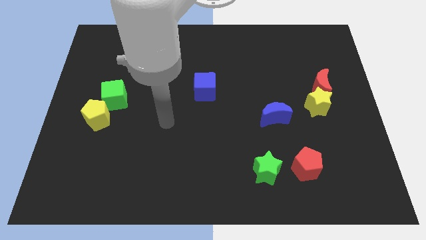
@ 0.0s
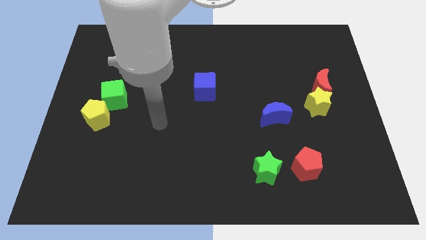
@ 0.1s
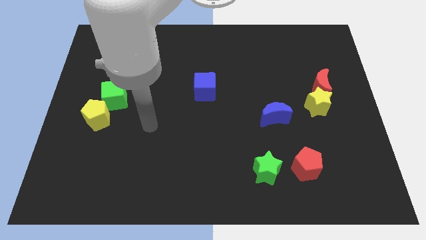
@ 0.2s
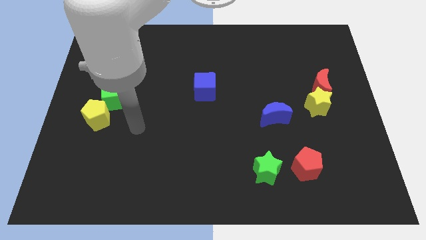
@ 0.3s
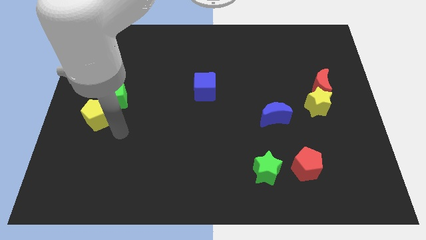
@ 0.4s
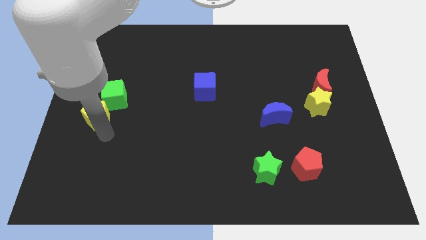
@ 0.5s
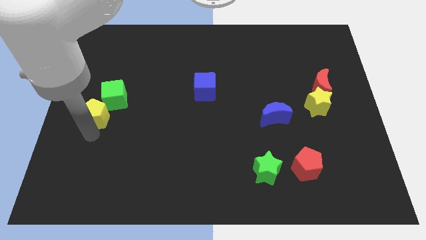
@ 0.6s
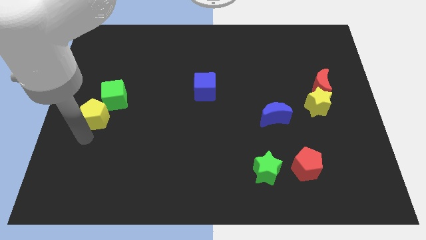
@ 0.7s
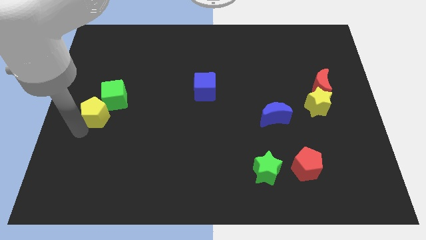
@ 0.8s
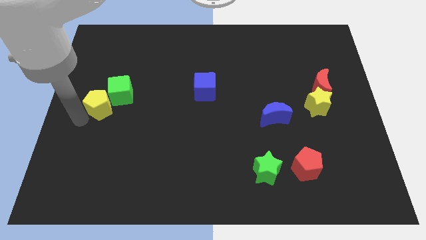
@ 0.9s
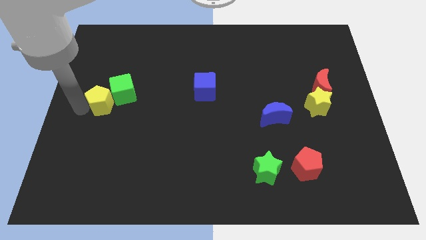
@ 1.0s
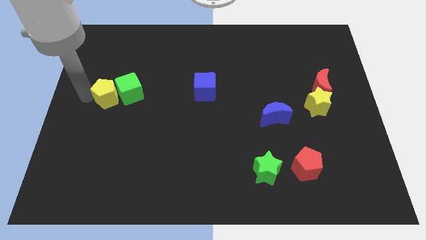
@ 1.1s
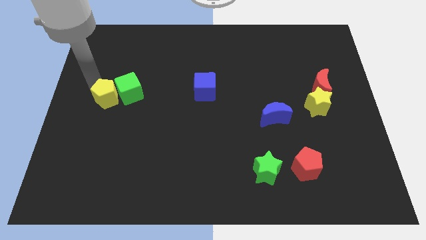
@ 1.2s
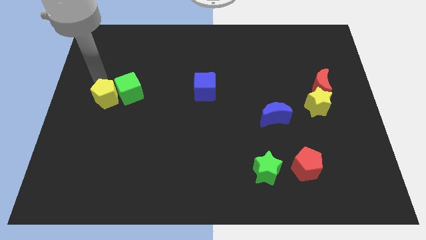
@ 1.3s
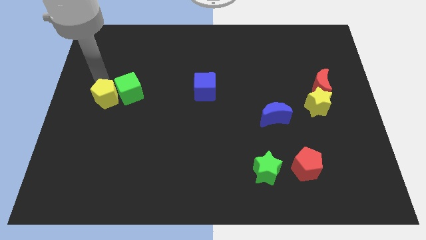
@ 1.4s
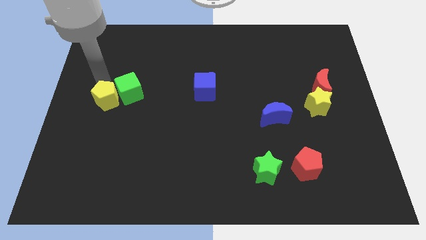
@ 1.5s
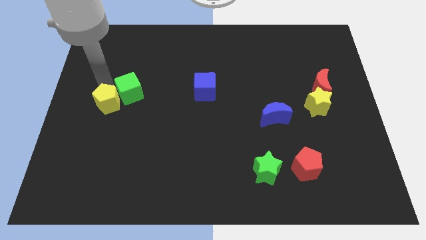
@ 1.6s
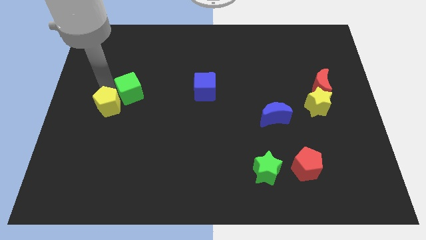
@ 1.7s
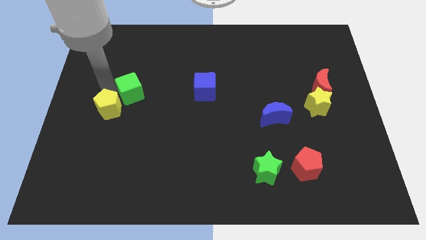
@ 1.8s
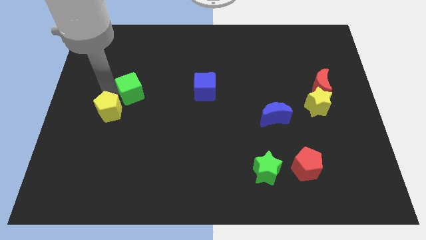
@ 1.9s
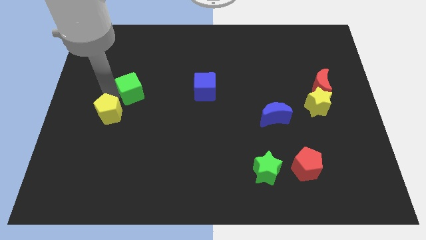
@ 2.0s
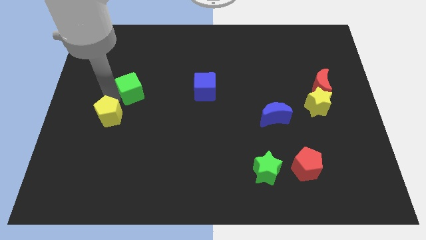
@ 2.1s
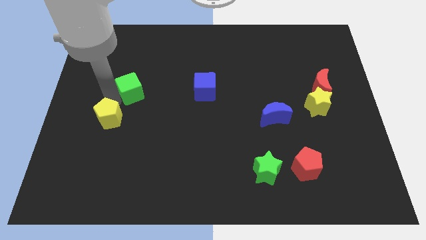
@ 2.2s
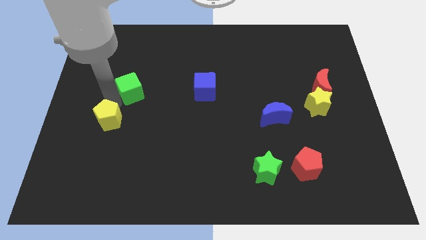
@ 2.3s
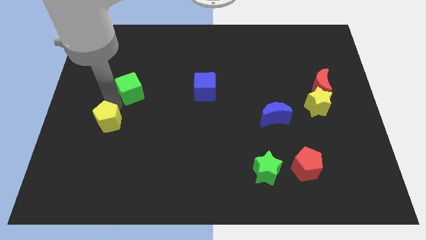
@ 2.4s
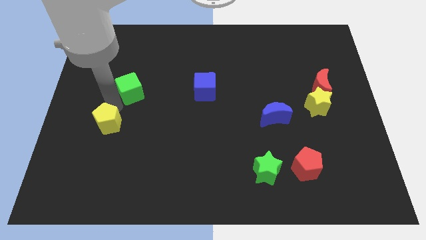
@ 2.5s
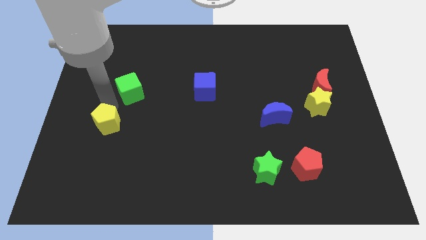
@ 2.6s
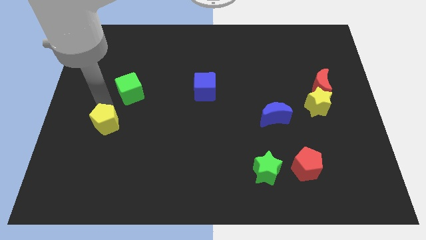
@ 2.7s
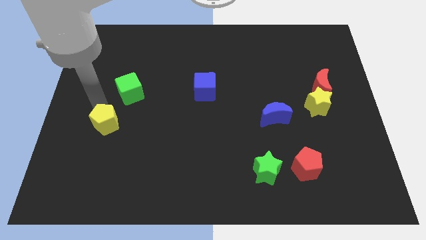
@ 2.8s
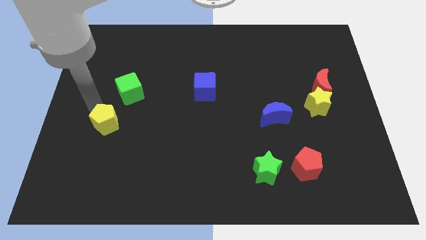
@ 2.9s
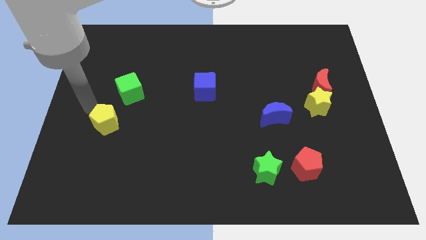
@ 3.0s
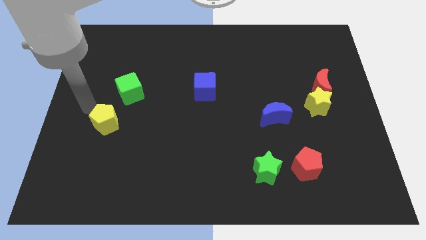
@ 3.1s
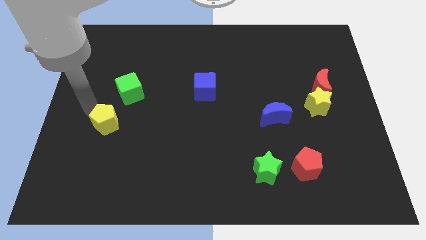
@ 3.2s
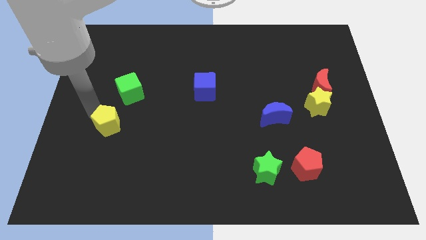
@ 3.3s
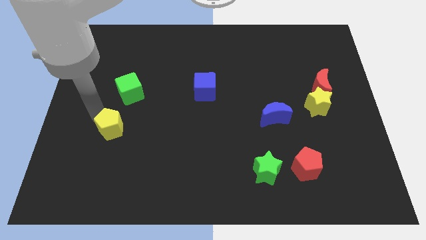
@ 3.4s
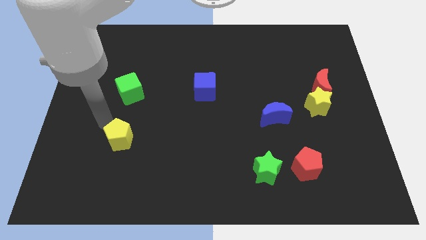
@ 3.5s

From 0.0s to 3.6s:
slide the yellow pentagon a bit diagonally downwards and to the right

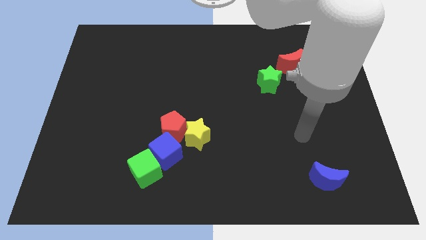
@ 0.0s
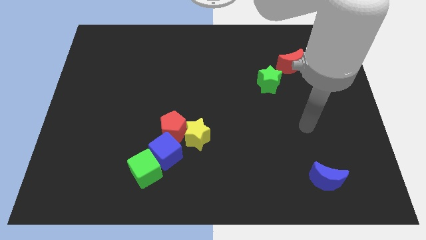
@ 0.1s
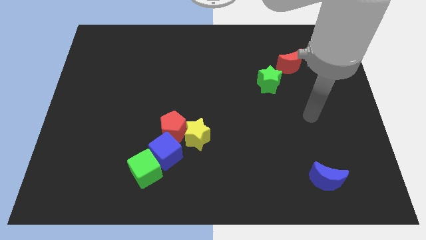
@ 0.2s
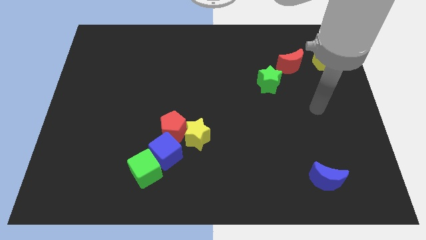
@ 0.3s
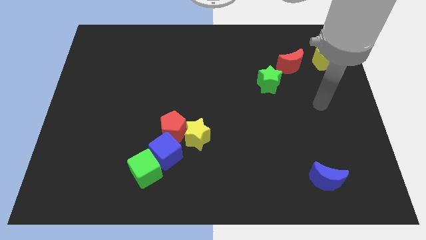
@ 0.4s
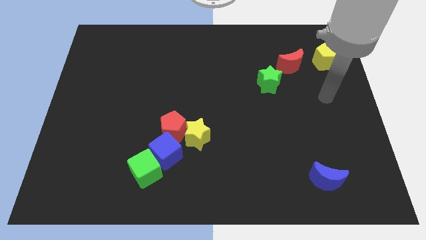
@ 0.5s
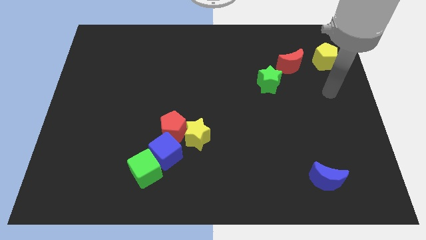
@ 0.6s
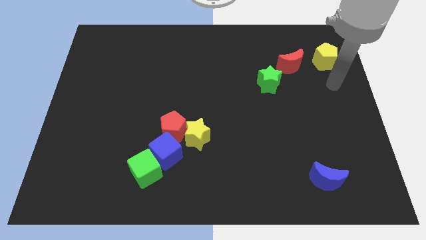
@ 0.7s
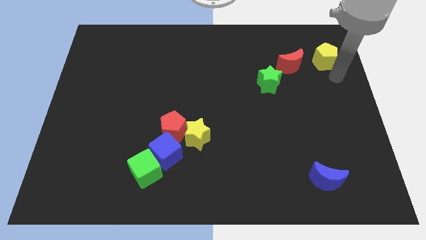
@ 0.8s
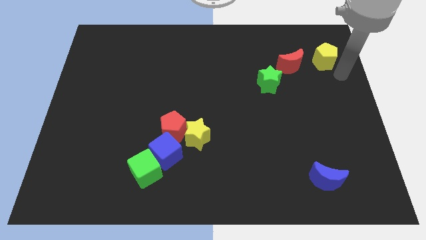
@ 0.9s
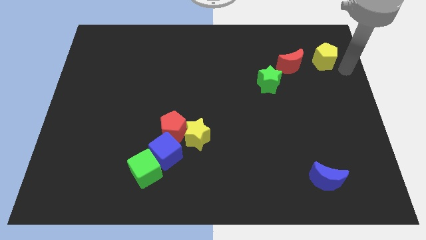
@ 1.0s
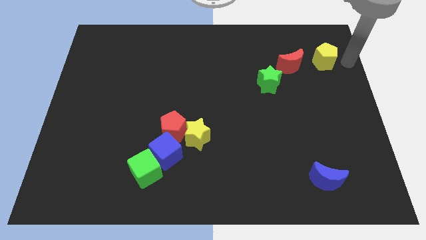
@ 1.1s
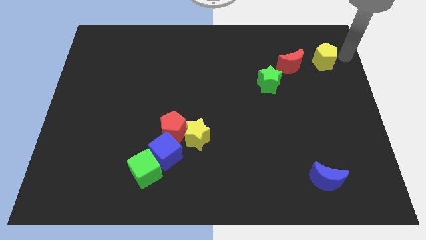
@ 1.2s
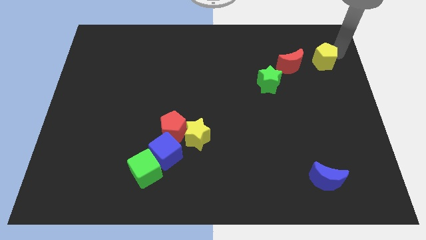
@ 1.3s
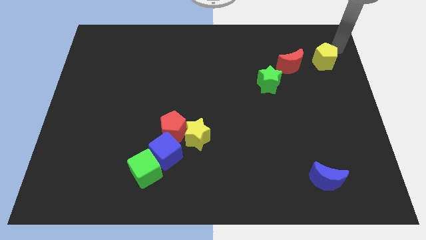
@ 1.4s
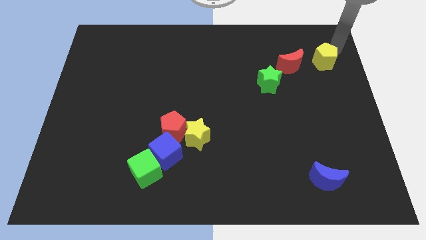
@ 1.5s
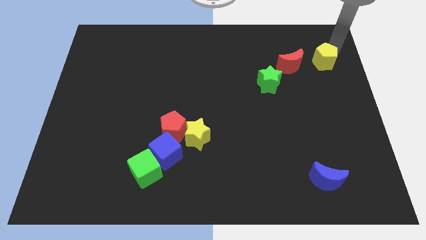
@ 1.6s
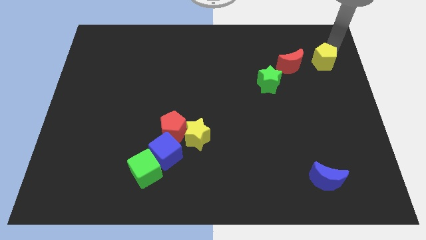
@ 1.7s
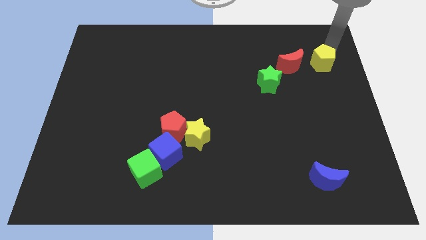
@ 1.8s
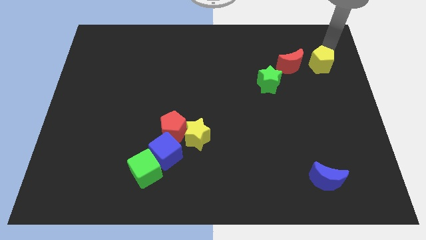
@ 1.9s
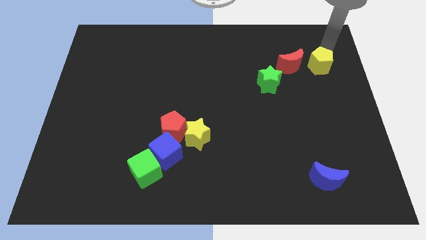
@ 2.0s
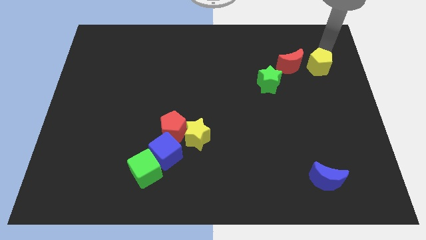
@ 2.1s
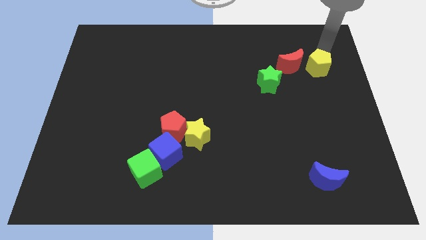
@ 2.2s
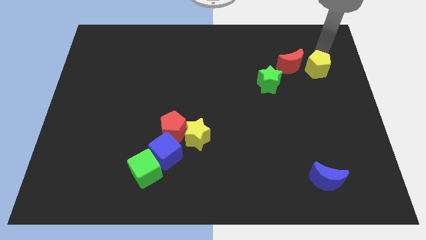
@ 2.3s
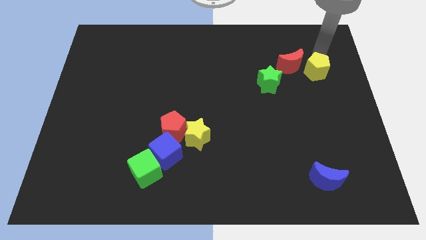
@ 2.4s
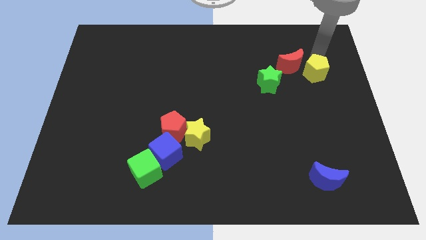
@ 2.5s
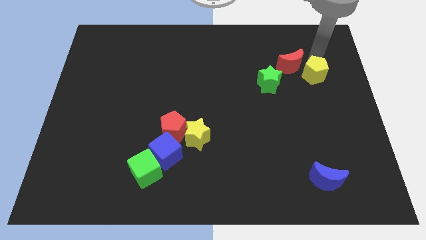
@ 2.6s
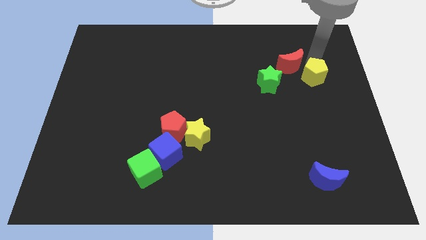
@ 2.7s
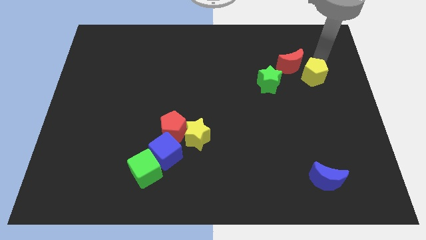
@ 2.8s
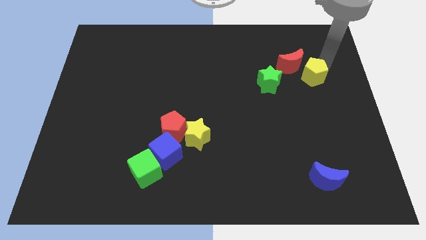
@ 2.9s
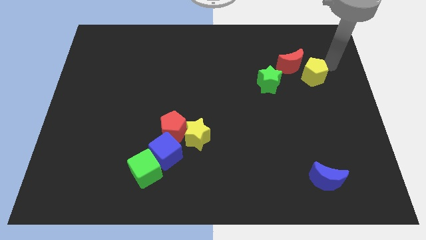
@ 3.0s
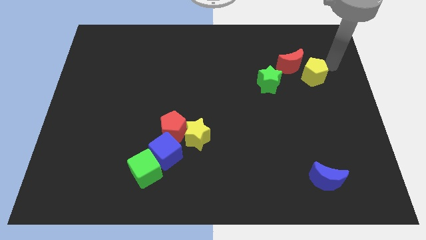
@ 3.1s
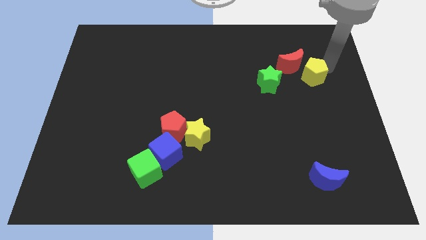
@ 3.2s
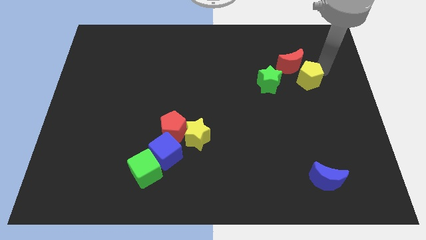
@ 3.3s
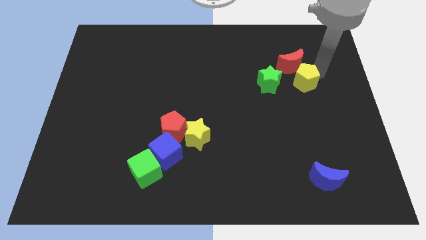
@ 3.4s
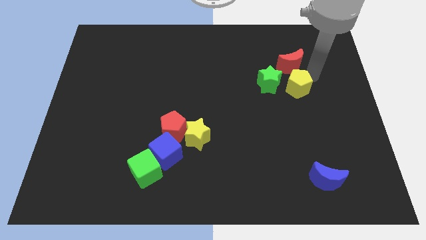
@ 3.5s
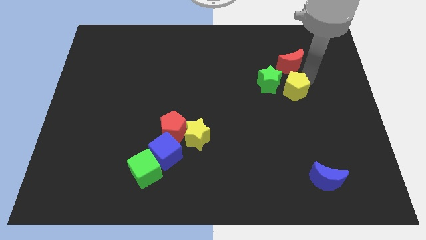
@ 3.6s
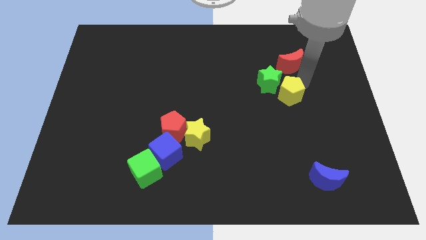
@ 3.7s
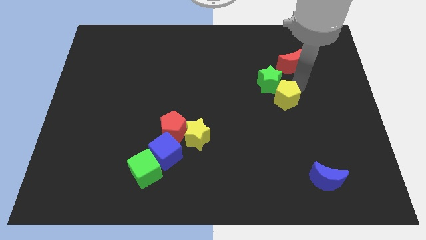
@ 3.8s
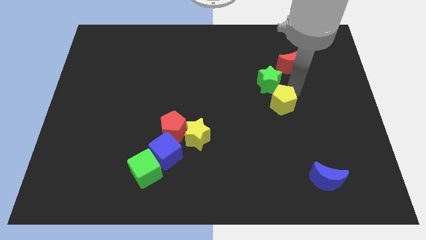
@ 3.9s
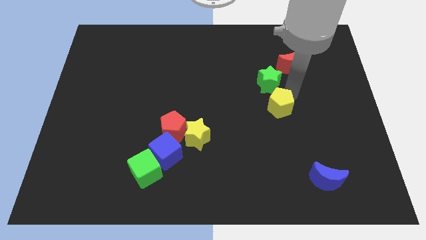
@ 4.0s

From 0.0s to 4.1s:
slide the yellow pentagon down and left
